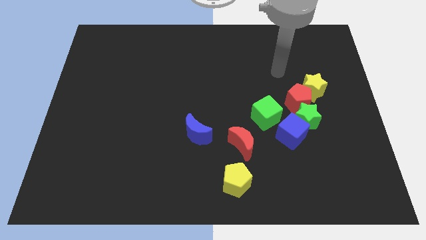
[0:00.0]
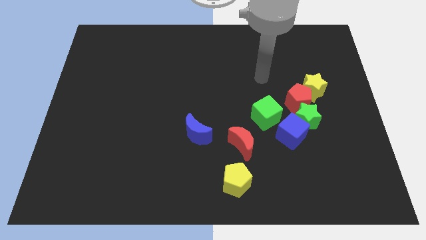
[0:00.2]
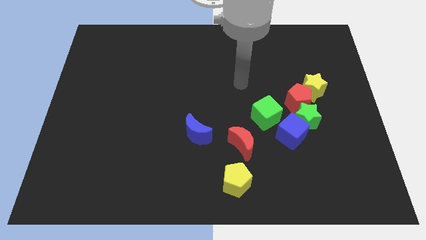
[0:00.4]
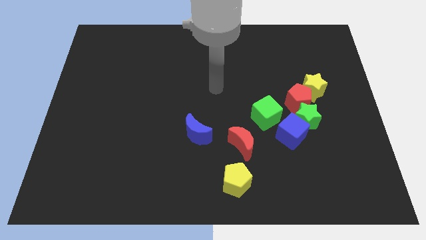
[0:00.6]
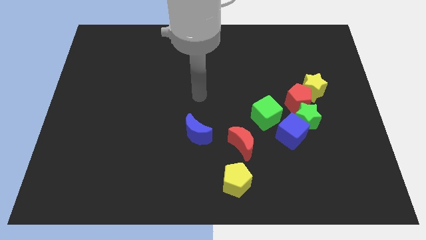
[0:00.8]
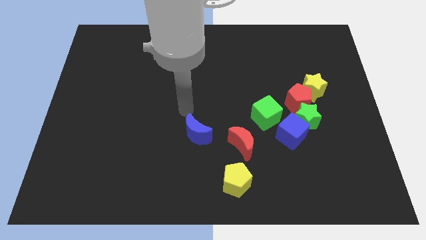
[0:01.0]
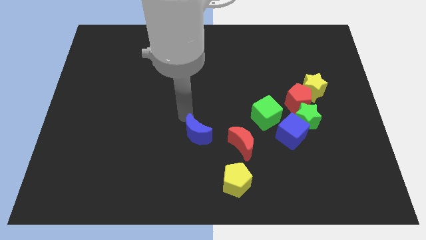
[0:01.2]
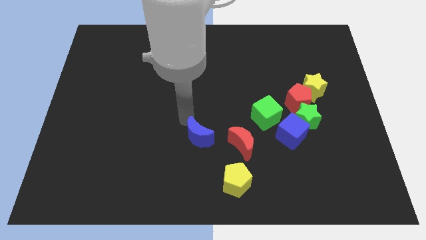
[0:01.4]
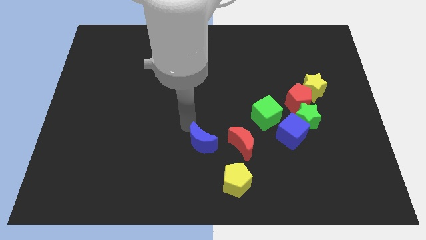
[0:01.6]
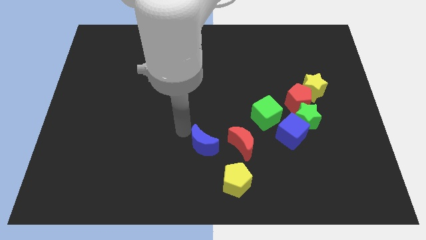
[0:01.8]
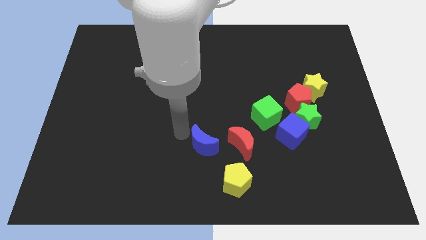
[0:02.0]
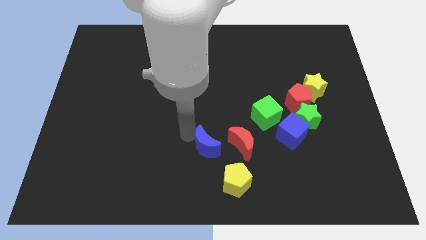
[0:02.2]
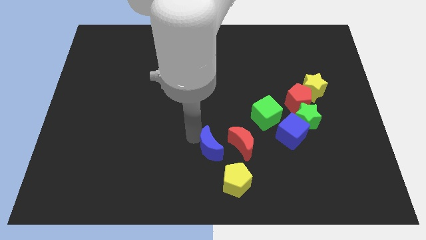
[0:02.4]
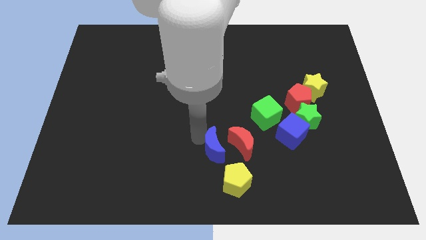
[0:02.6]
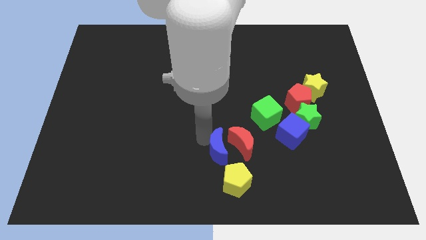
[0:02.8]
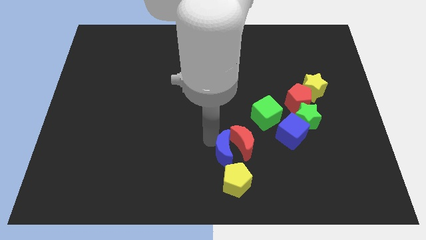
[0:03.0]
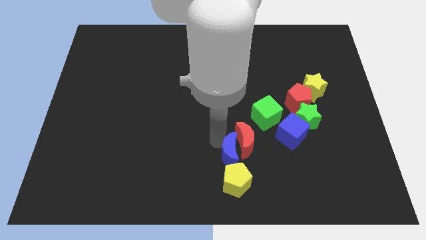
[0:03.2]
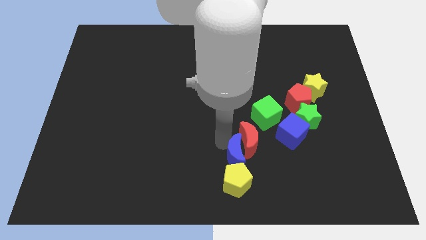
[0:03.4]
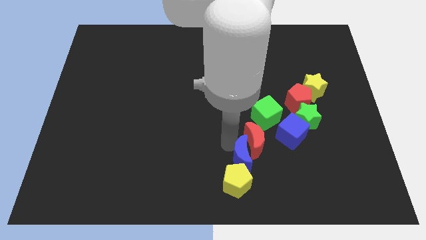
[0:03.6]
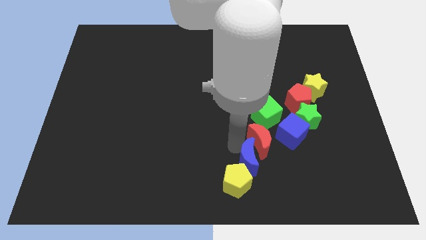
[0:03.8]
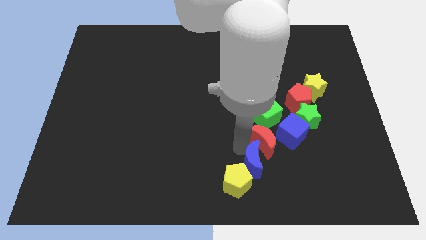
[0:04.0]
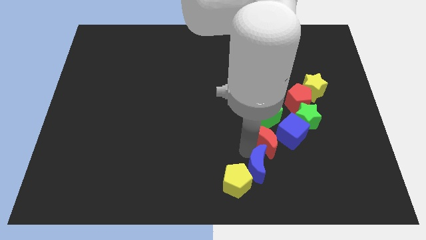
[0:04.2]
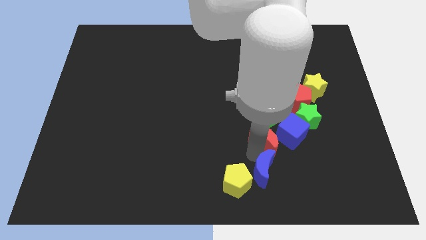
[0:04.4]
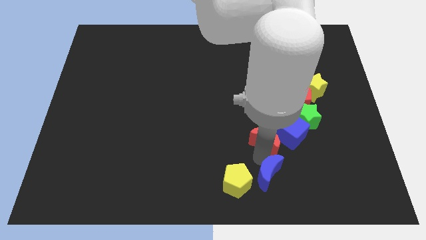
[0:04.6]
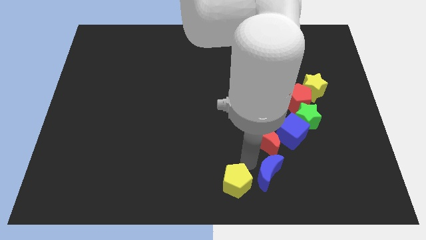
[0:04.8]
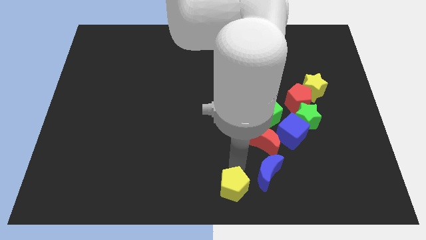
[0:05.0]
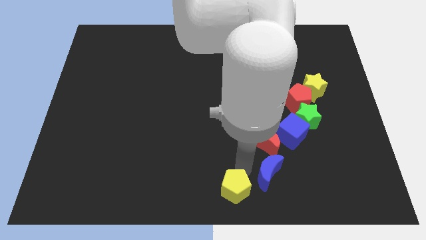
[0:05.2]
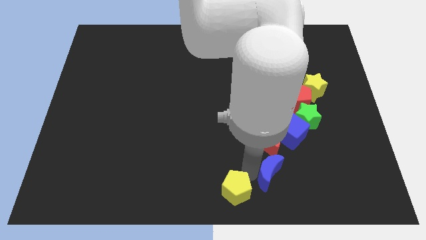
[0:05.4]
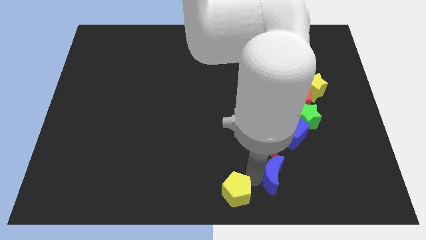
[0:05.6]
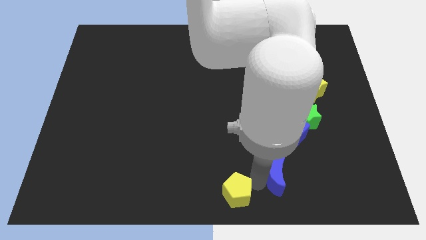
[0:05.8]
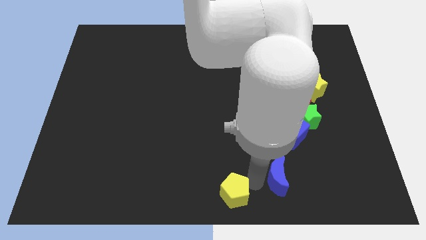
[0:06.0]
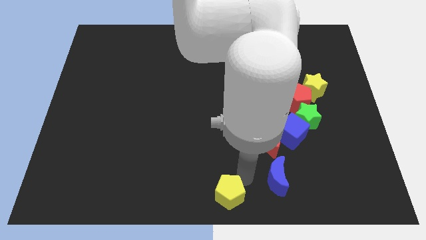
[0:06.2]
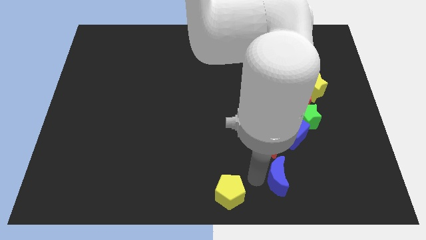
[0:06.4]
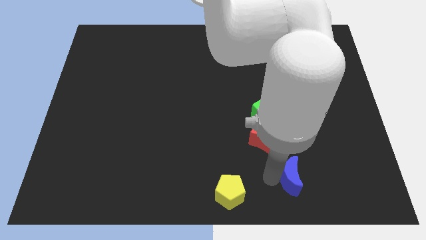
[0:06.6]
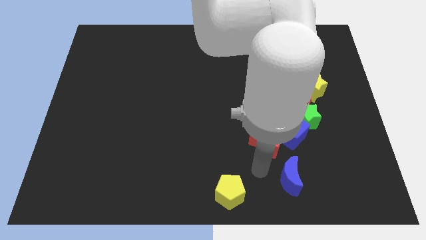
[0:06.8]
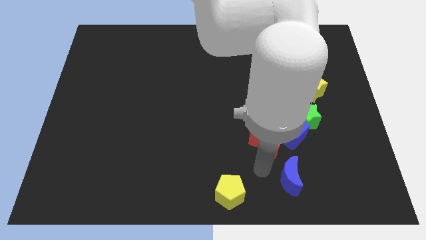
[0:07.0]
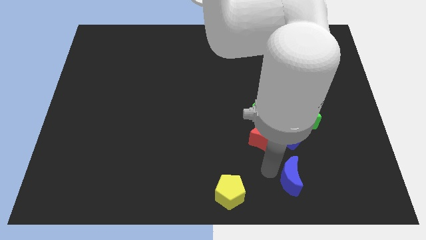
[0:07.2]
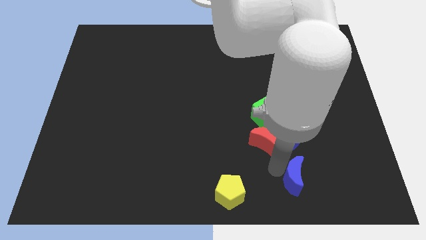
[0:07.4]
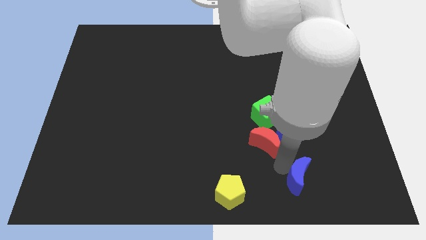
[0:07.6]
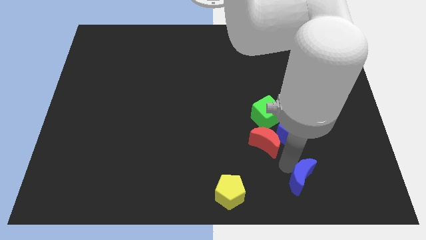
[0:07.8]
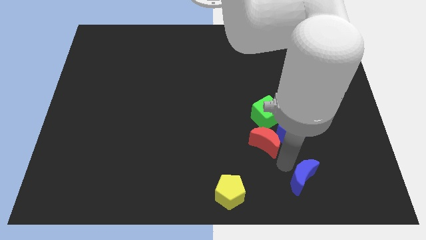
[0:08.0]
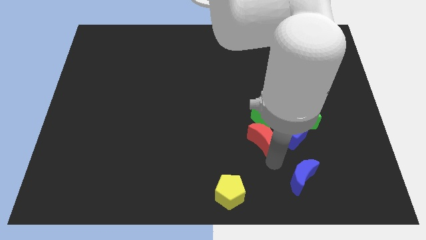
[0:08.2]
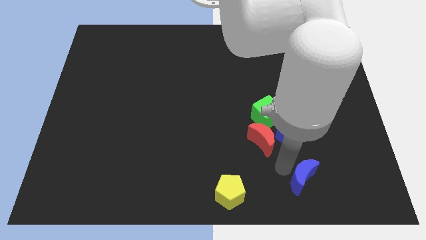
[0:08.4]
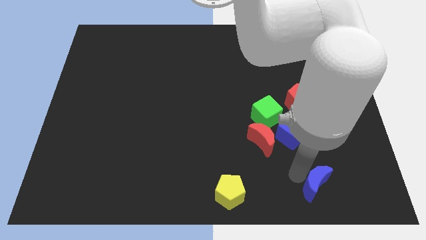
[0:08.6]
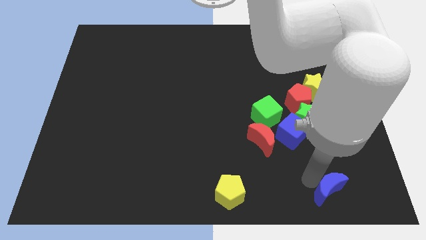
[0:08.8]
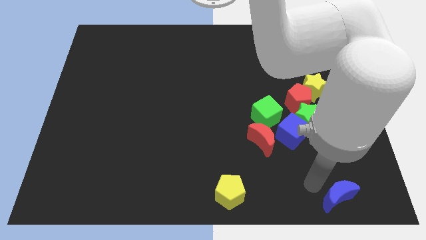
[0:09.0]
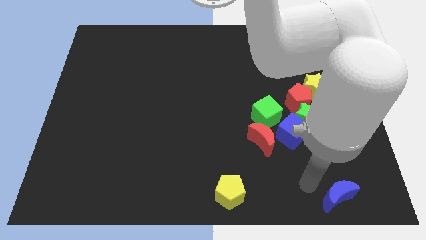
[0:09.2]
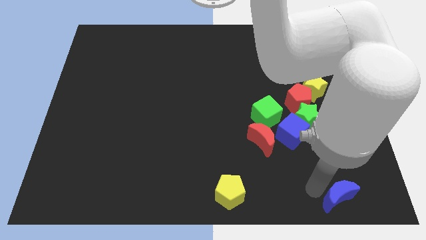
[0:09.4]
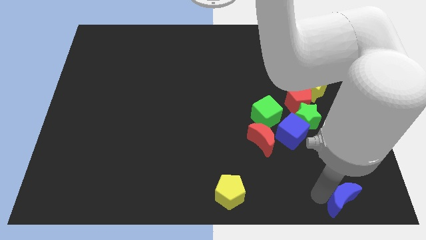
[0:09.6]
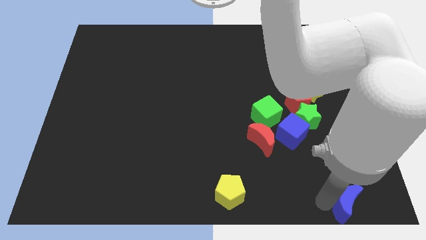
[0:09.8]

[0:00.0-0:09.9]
put the blue moon to the lower right corner

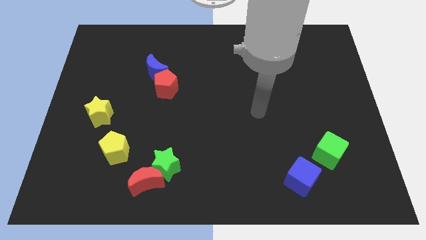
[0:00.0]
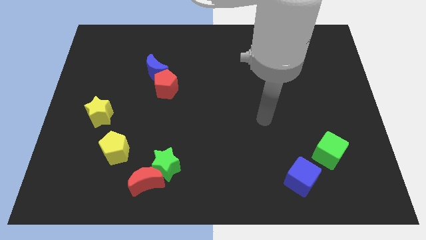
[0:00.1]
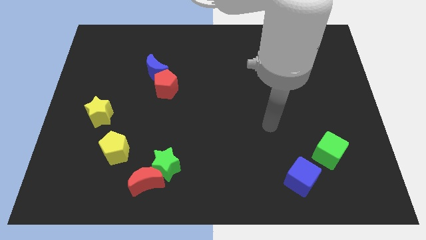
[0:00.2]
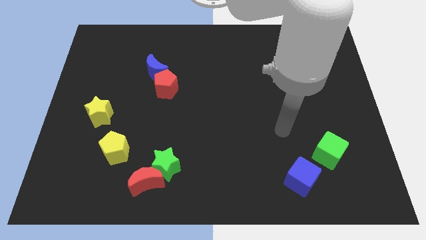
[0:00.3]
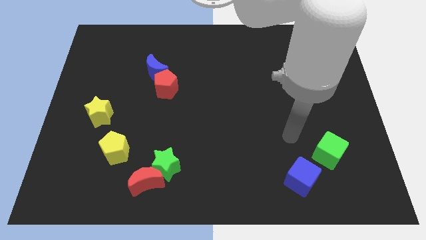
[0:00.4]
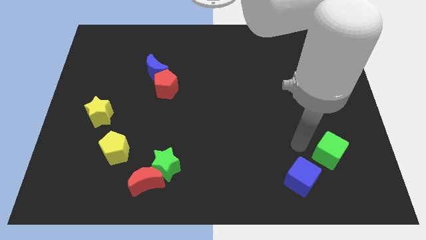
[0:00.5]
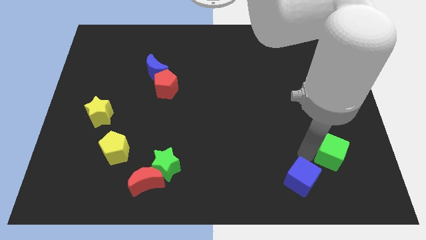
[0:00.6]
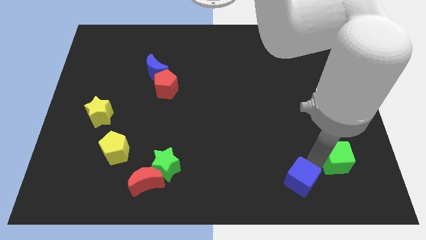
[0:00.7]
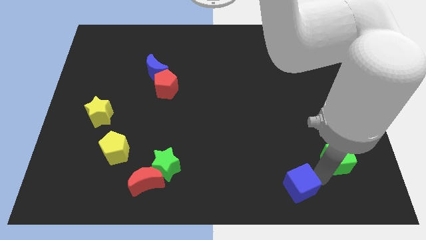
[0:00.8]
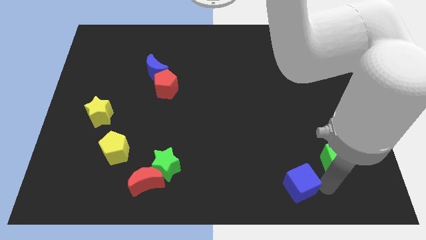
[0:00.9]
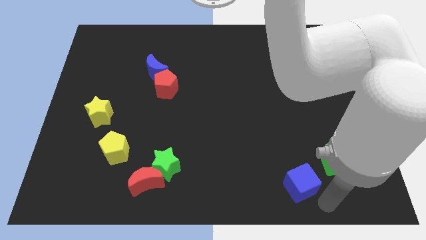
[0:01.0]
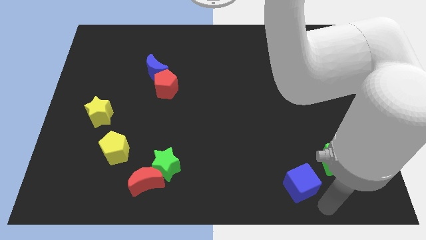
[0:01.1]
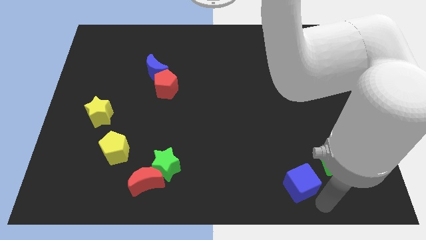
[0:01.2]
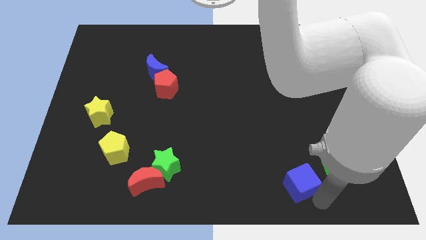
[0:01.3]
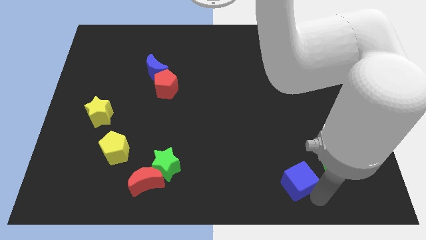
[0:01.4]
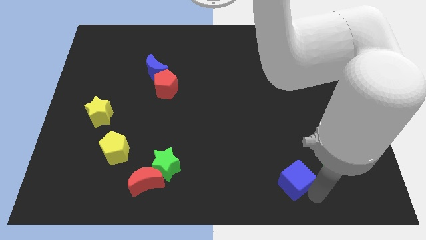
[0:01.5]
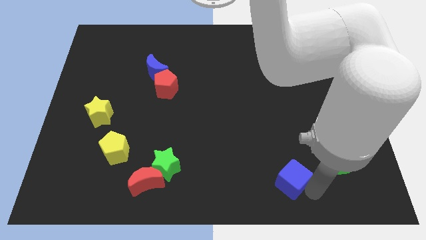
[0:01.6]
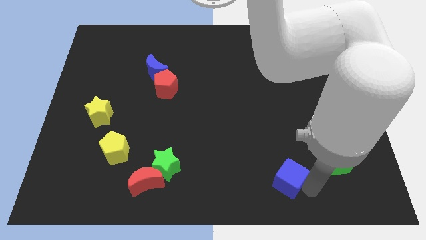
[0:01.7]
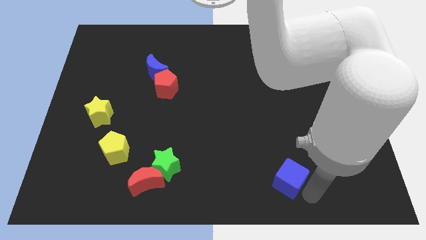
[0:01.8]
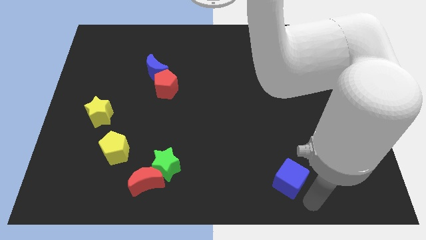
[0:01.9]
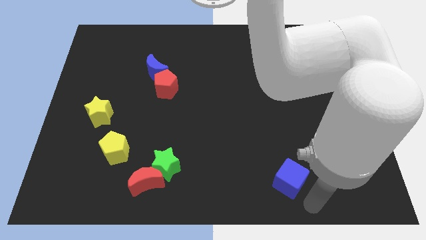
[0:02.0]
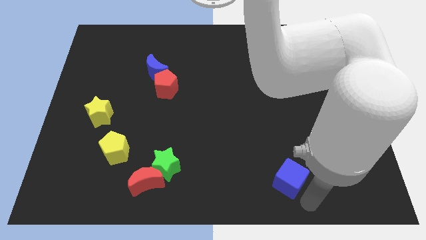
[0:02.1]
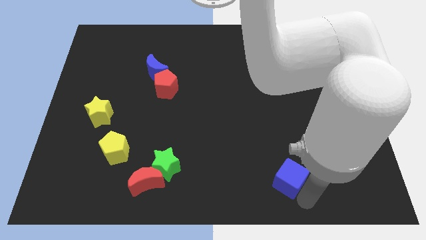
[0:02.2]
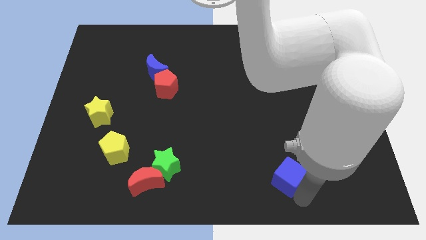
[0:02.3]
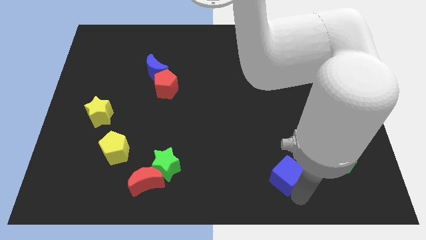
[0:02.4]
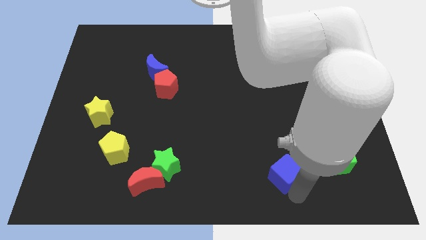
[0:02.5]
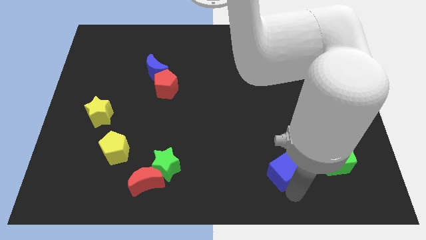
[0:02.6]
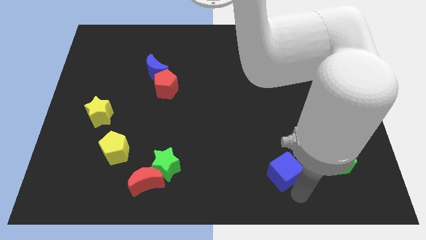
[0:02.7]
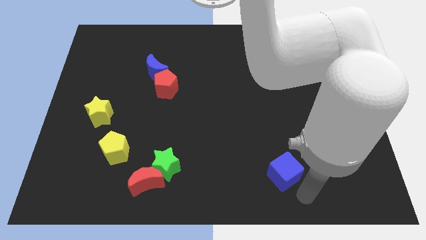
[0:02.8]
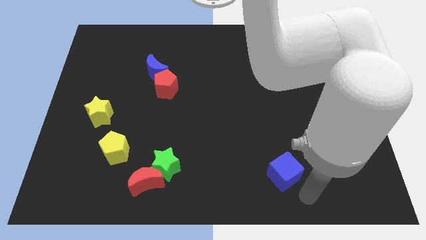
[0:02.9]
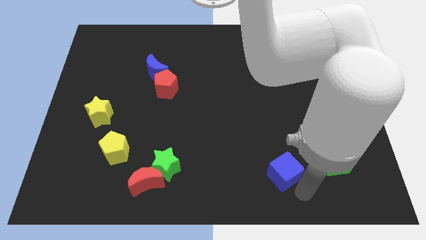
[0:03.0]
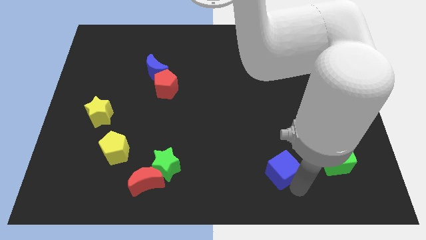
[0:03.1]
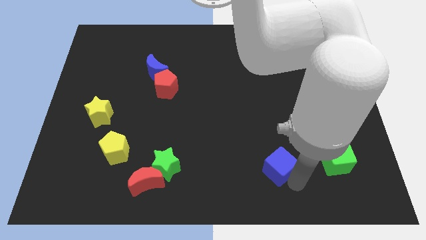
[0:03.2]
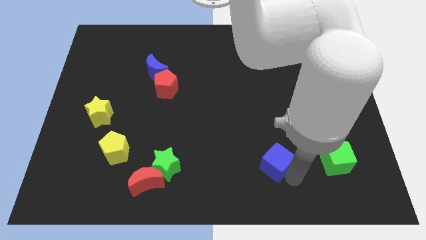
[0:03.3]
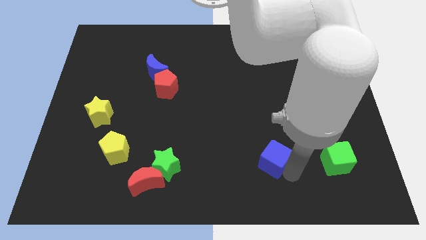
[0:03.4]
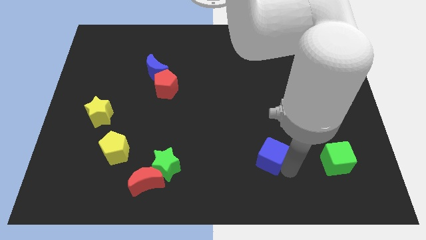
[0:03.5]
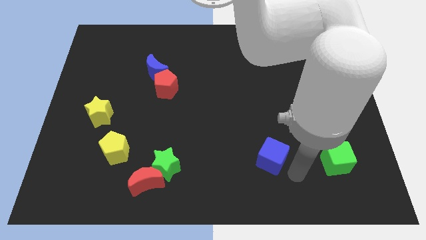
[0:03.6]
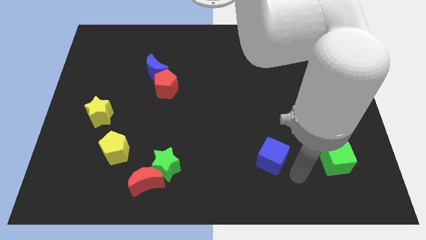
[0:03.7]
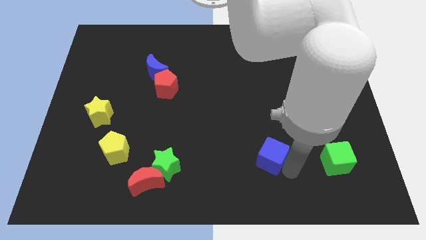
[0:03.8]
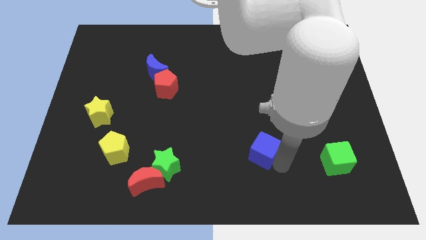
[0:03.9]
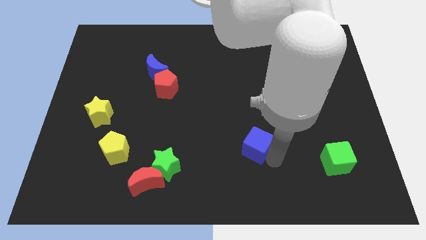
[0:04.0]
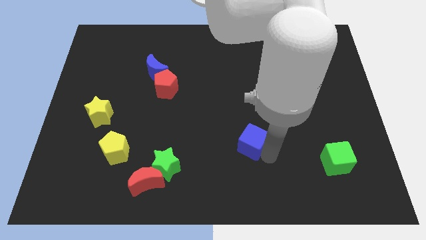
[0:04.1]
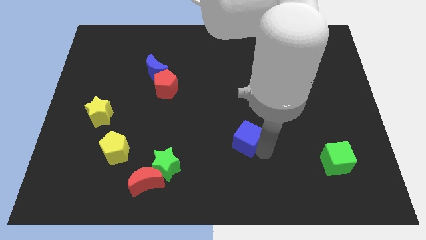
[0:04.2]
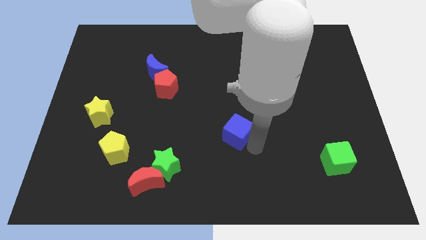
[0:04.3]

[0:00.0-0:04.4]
slide the blue cube to the center of the board
